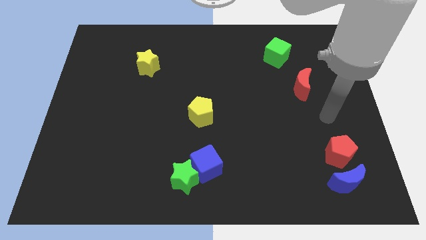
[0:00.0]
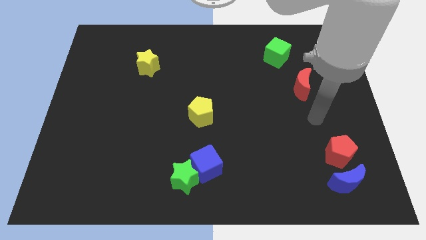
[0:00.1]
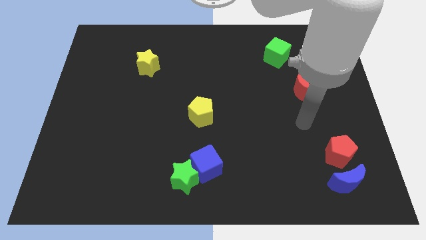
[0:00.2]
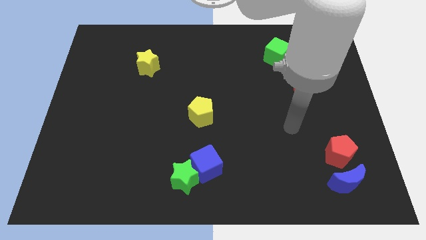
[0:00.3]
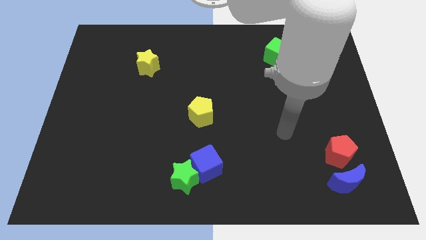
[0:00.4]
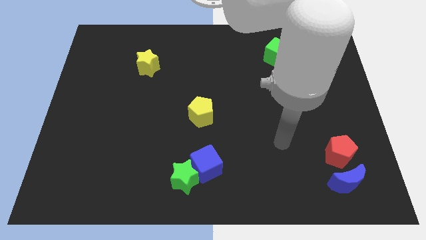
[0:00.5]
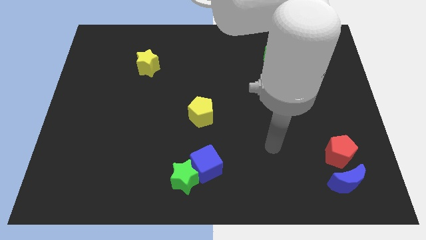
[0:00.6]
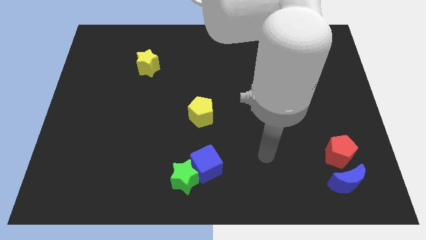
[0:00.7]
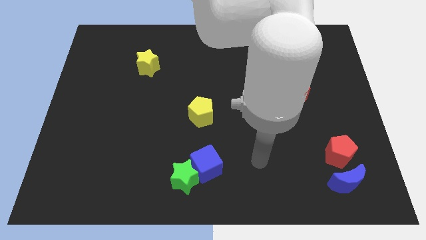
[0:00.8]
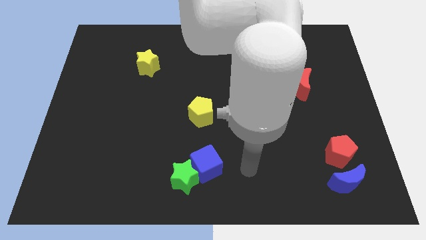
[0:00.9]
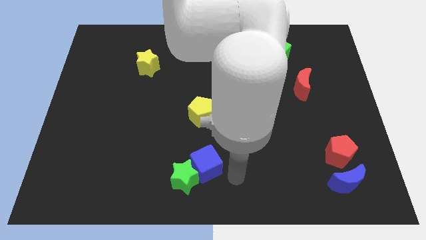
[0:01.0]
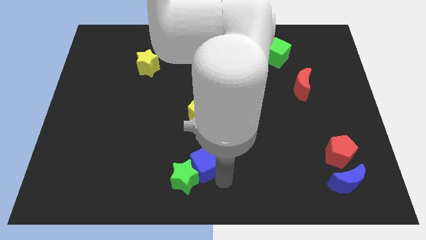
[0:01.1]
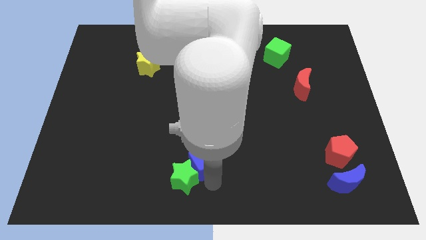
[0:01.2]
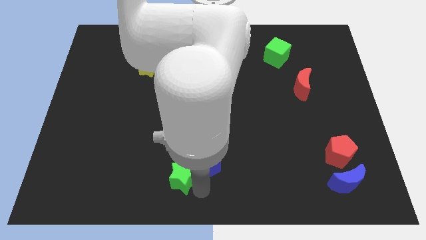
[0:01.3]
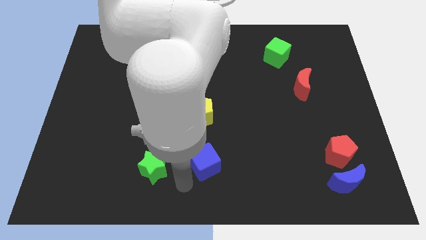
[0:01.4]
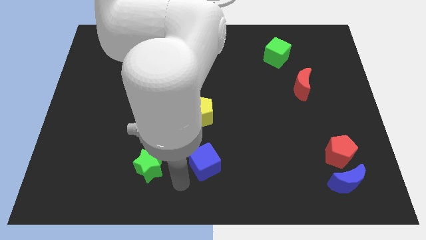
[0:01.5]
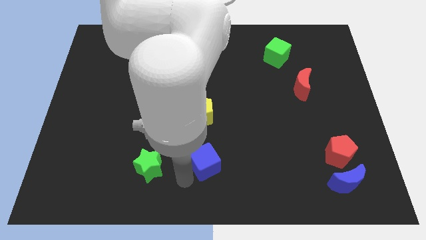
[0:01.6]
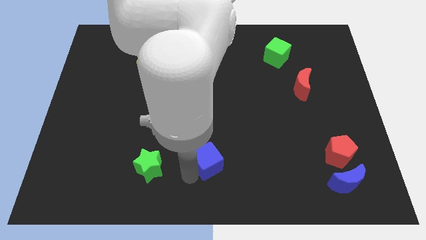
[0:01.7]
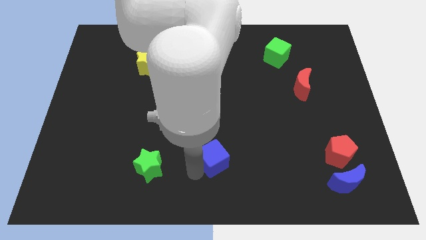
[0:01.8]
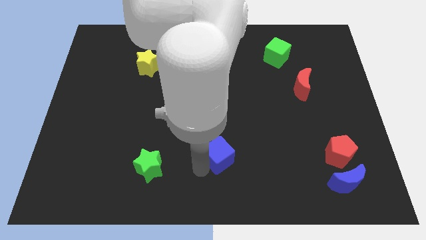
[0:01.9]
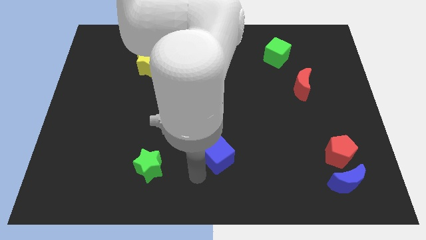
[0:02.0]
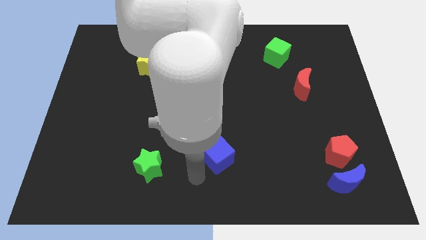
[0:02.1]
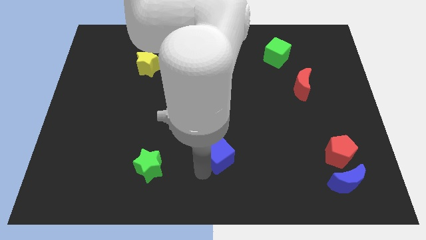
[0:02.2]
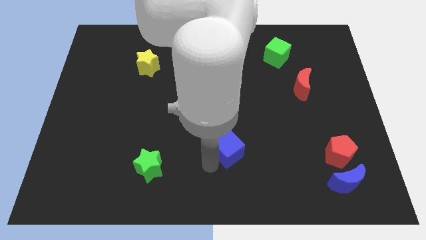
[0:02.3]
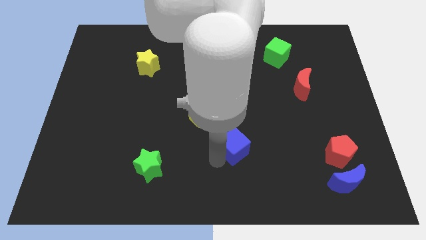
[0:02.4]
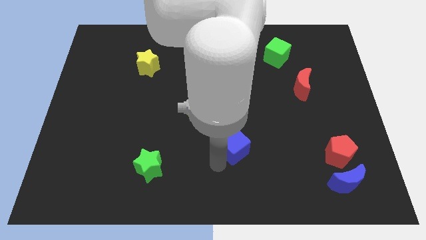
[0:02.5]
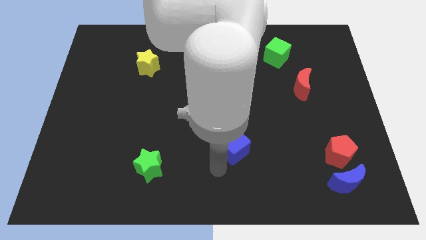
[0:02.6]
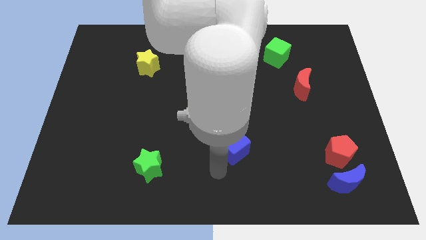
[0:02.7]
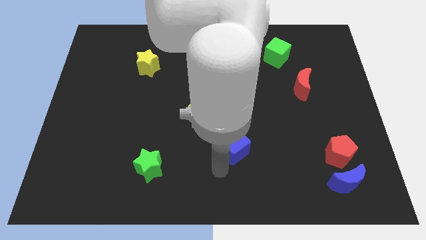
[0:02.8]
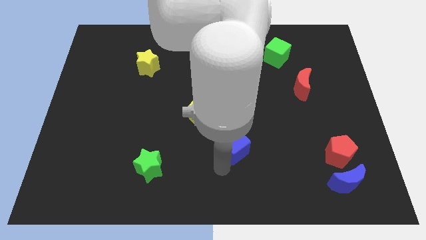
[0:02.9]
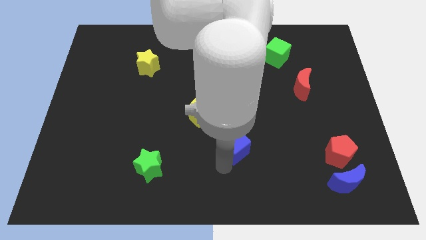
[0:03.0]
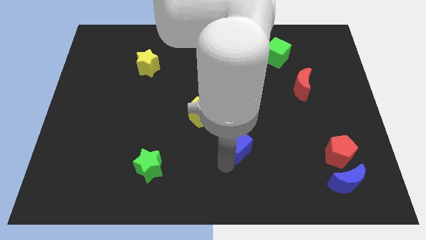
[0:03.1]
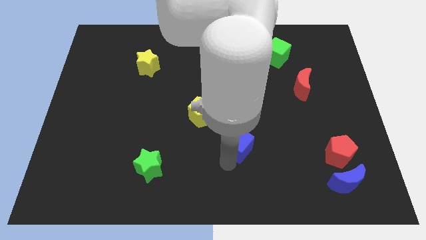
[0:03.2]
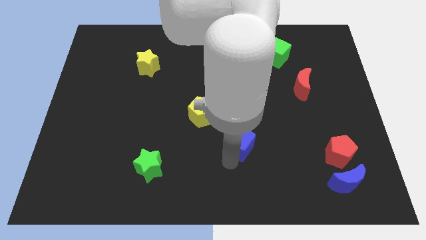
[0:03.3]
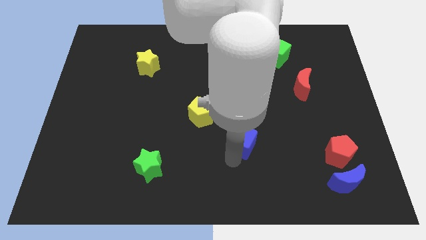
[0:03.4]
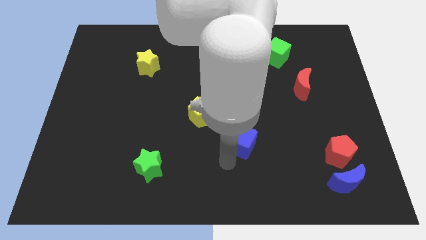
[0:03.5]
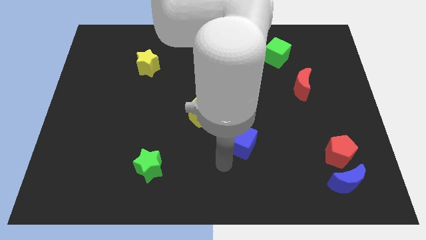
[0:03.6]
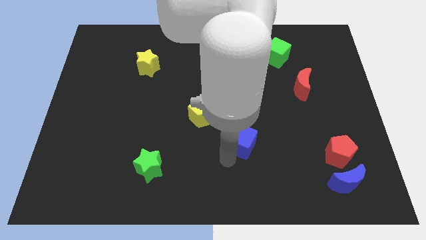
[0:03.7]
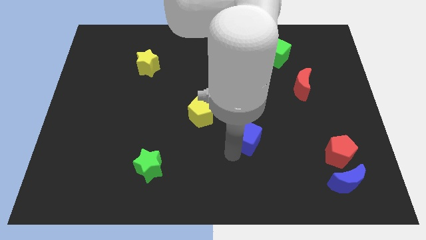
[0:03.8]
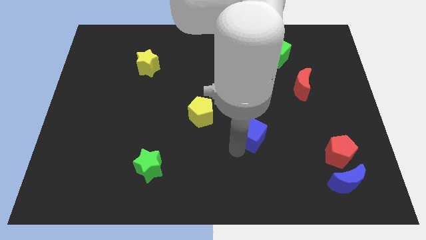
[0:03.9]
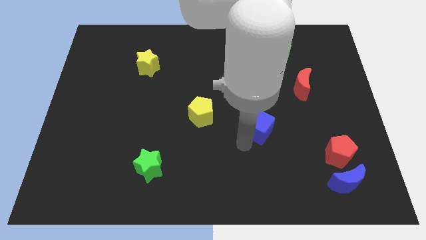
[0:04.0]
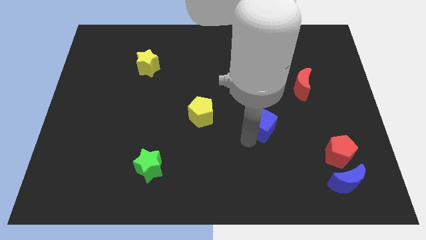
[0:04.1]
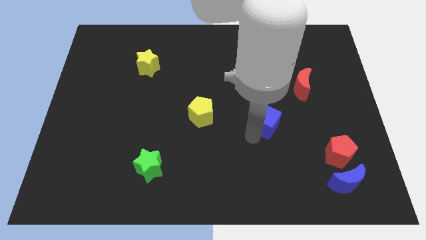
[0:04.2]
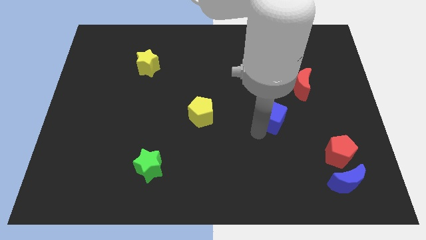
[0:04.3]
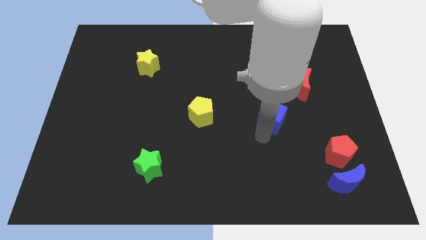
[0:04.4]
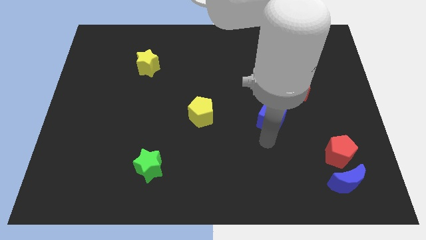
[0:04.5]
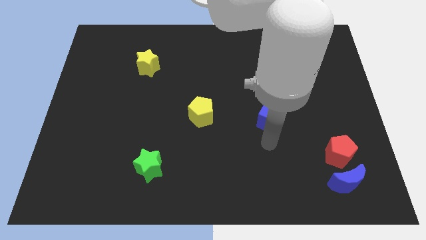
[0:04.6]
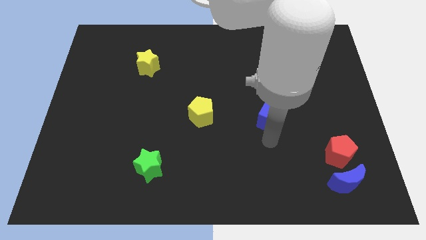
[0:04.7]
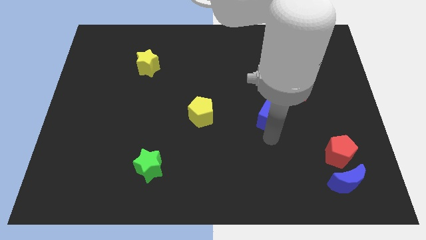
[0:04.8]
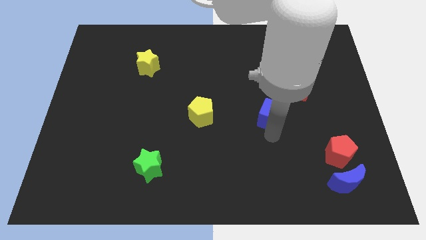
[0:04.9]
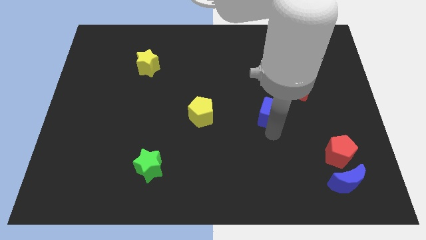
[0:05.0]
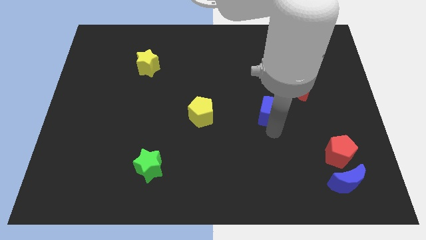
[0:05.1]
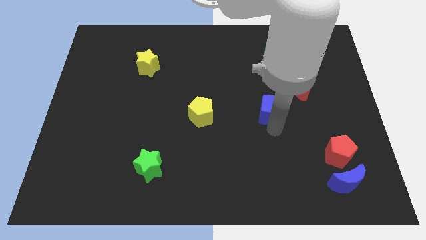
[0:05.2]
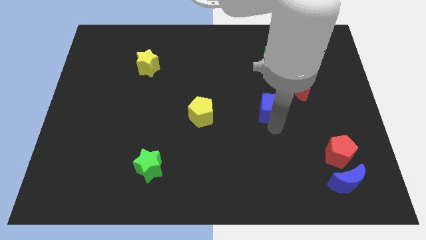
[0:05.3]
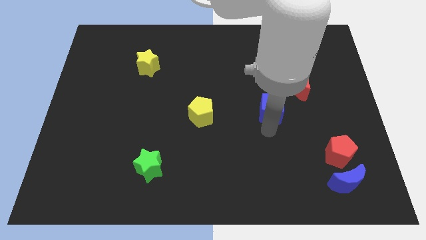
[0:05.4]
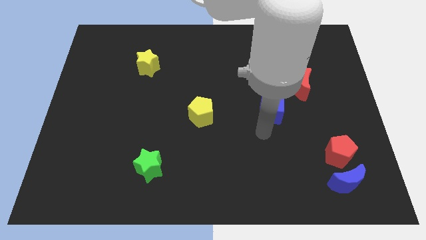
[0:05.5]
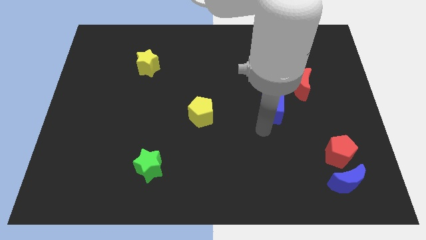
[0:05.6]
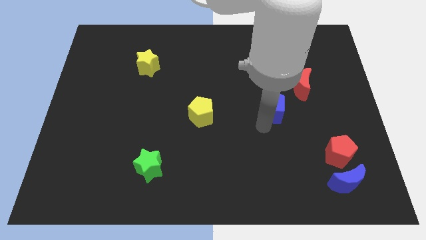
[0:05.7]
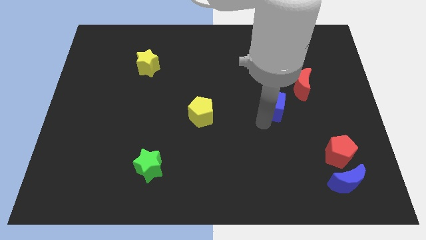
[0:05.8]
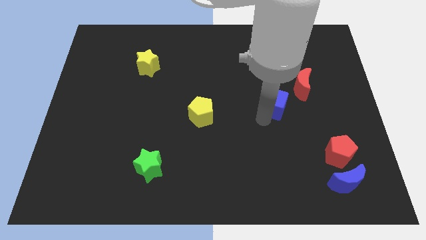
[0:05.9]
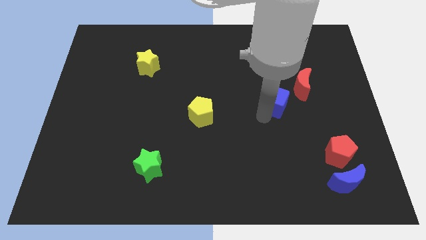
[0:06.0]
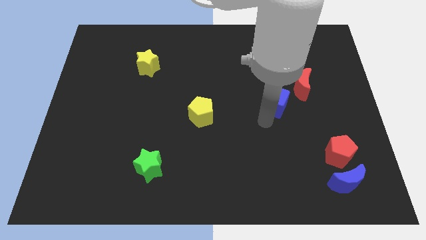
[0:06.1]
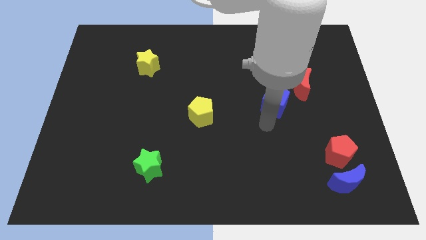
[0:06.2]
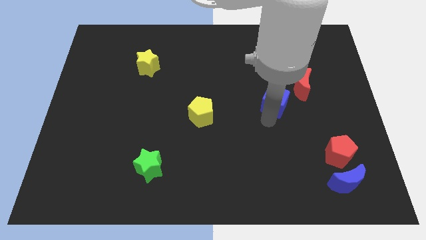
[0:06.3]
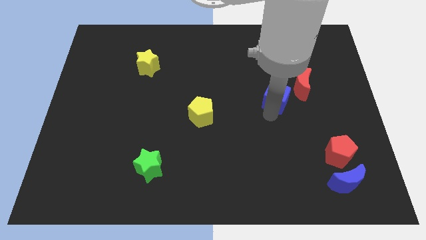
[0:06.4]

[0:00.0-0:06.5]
push the blue cube below the green cube

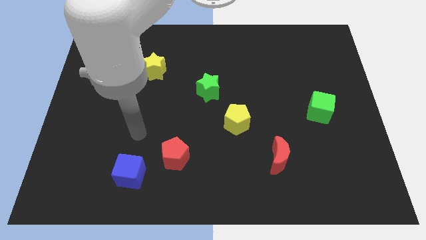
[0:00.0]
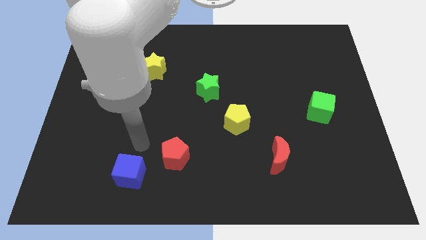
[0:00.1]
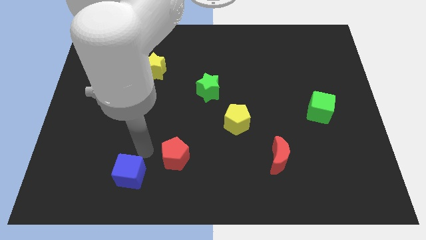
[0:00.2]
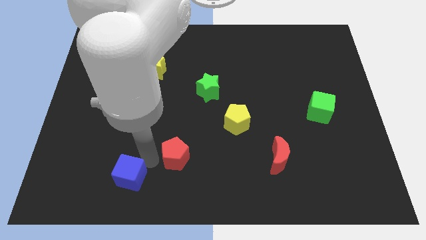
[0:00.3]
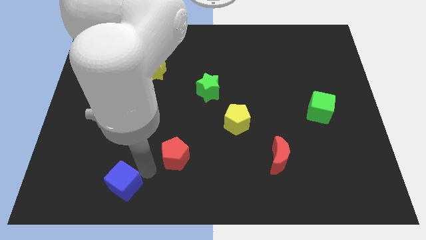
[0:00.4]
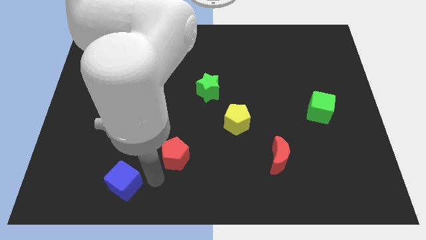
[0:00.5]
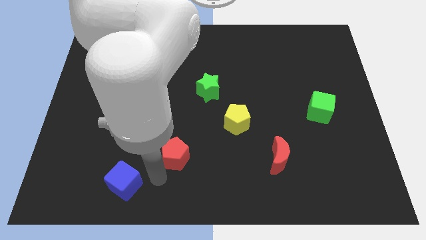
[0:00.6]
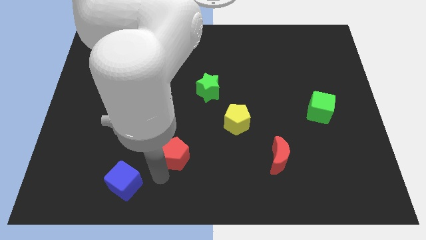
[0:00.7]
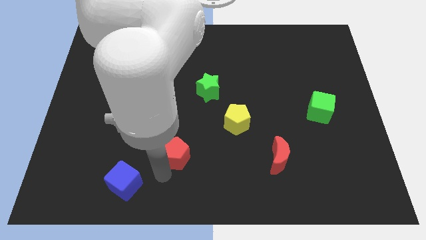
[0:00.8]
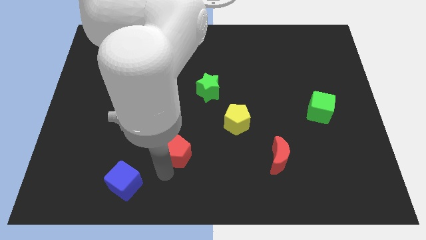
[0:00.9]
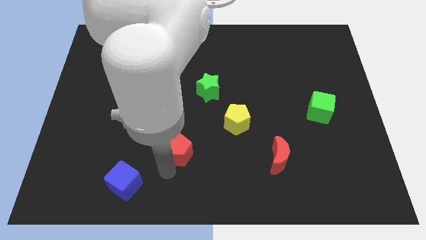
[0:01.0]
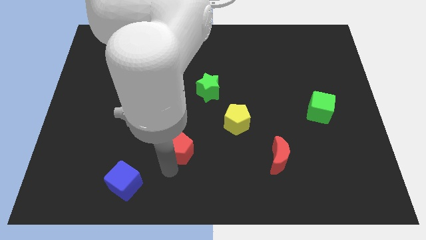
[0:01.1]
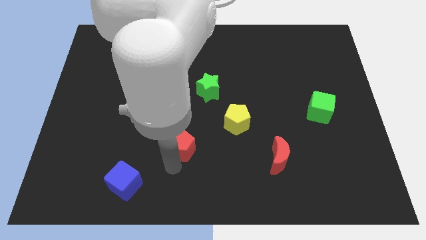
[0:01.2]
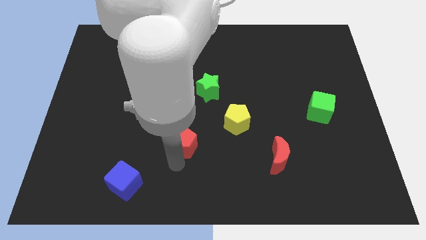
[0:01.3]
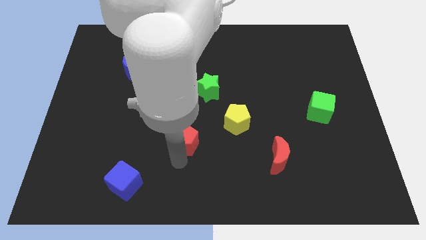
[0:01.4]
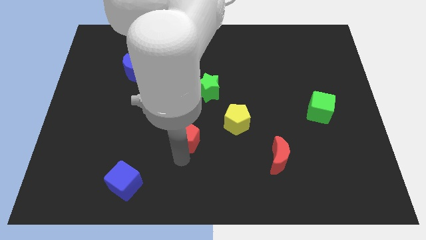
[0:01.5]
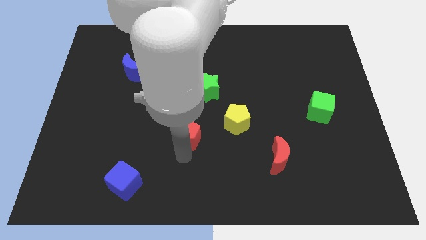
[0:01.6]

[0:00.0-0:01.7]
move the red pentagon to the bottom side of the green star
